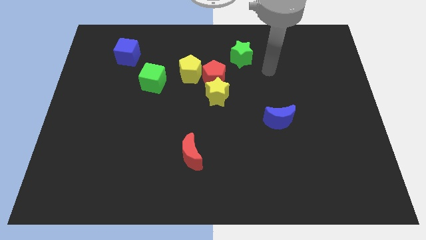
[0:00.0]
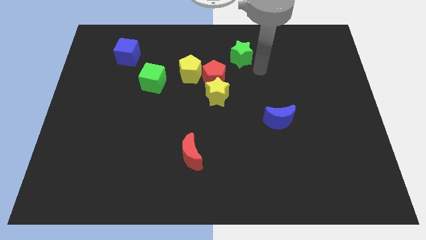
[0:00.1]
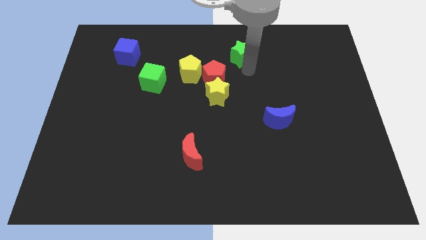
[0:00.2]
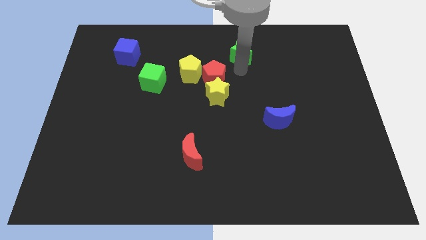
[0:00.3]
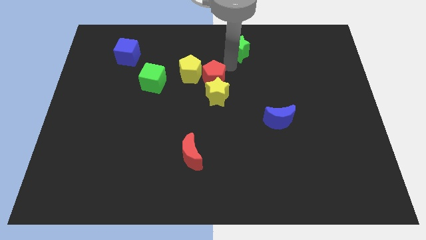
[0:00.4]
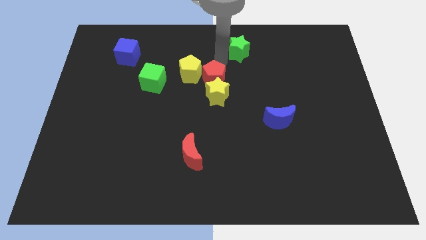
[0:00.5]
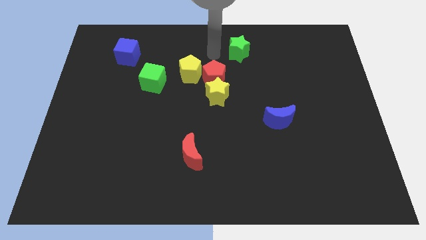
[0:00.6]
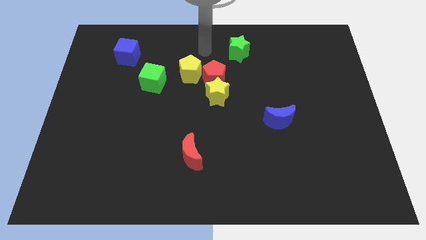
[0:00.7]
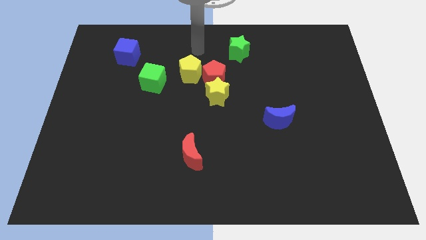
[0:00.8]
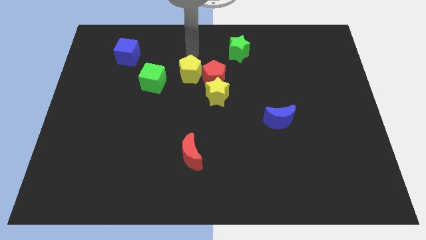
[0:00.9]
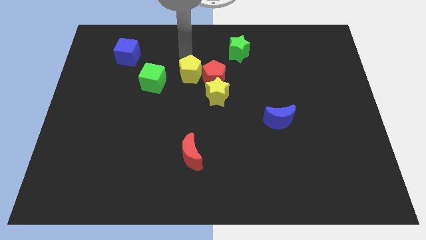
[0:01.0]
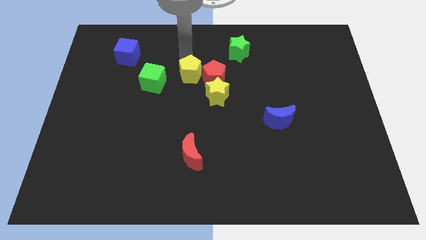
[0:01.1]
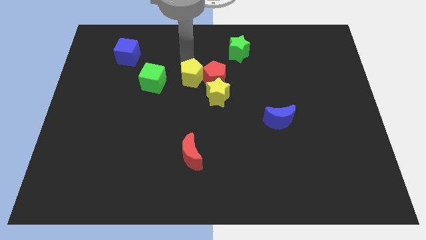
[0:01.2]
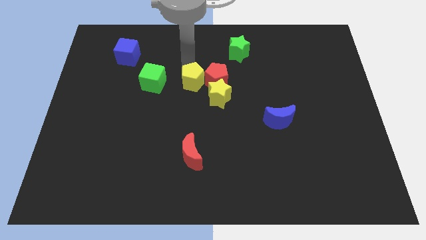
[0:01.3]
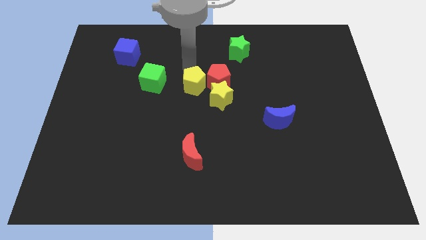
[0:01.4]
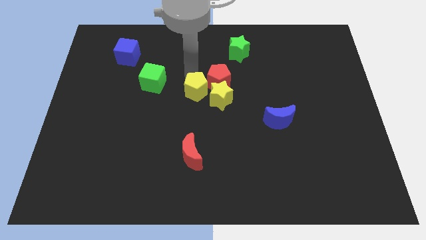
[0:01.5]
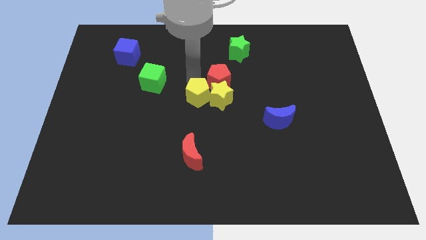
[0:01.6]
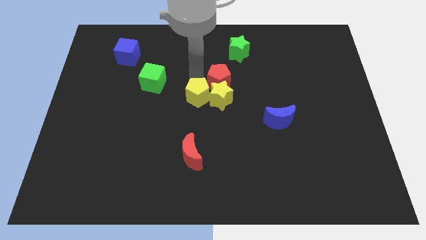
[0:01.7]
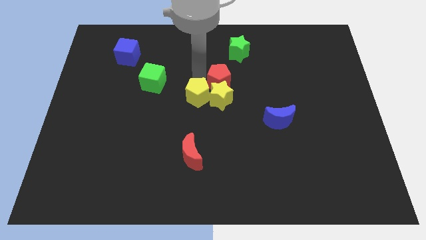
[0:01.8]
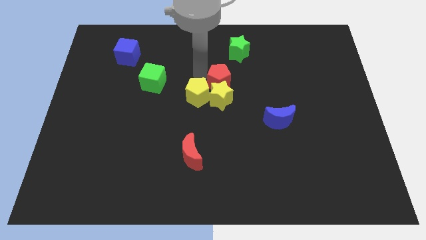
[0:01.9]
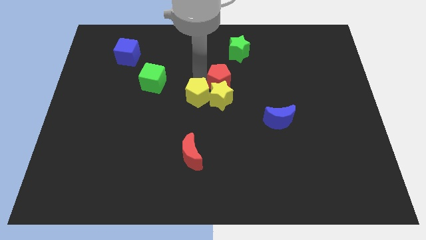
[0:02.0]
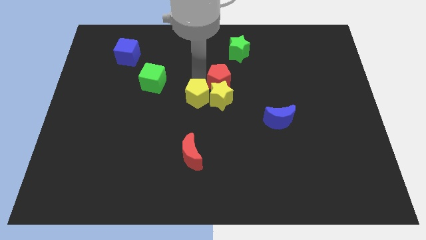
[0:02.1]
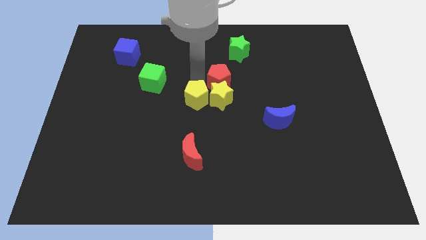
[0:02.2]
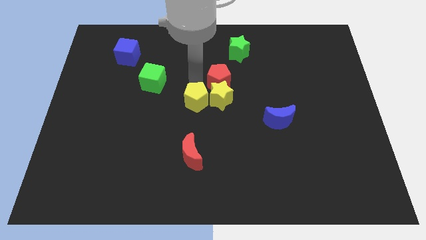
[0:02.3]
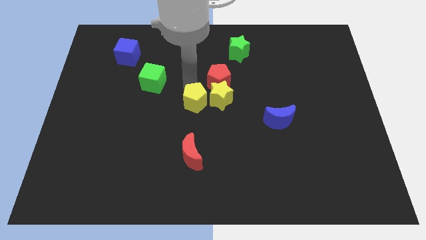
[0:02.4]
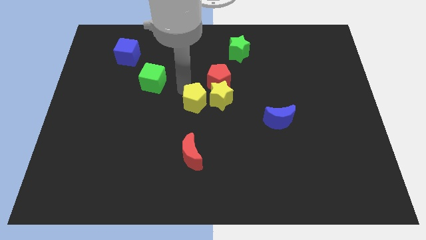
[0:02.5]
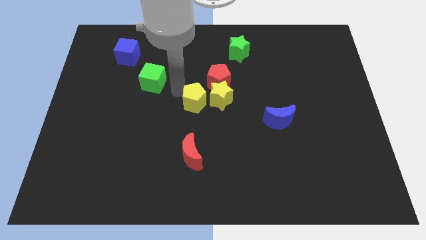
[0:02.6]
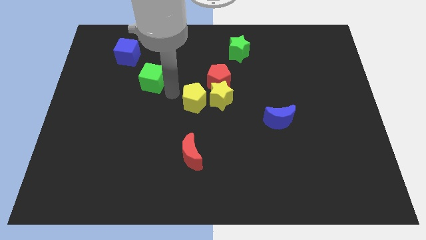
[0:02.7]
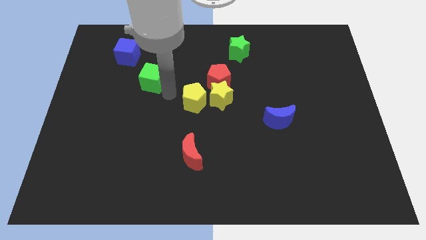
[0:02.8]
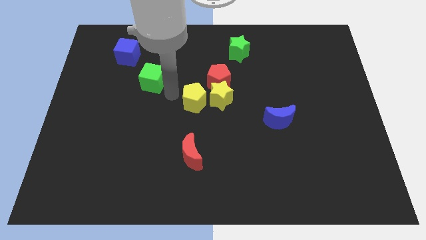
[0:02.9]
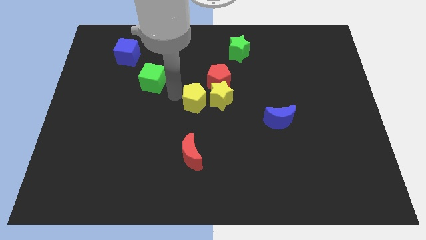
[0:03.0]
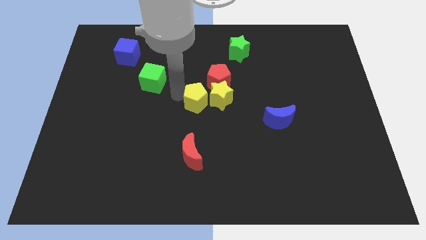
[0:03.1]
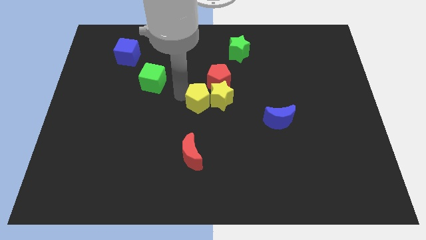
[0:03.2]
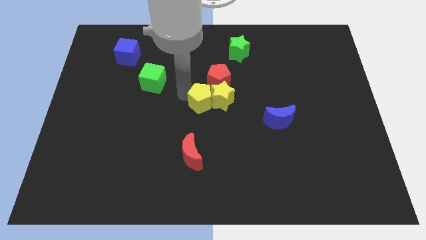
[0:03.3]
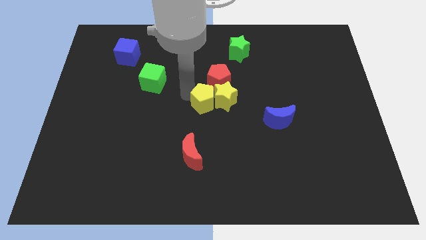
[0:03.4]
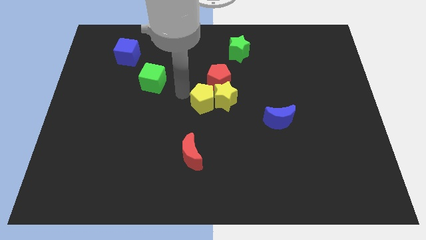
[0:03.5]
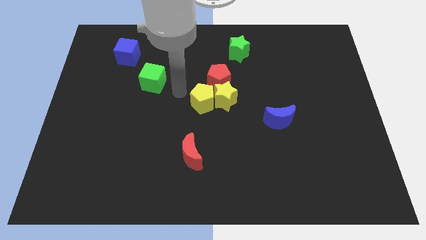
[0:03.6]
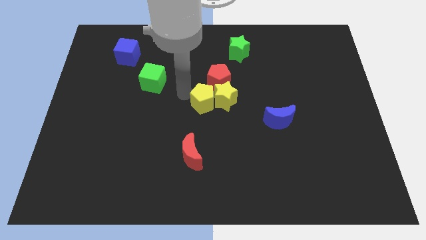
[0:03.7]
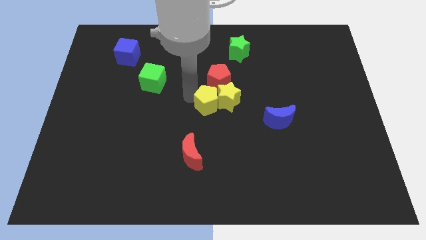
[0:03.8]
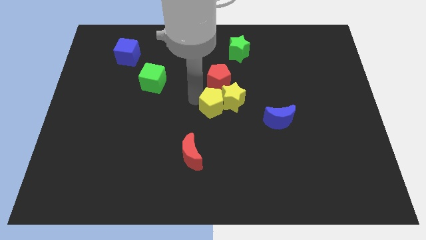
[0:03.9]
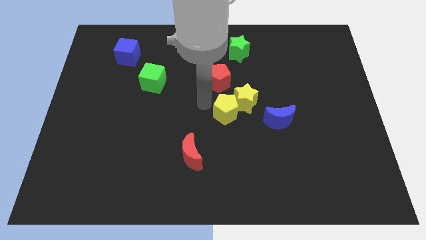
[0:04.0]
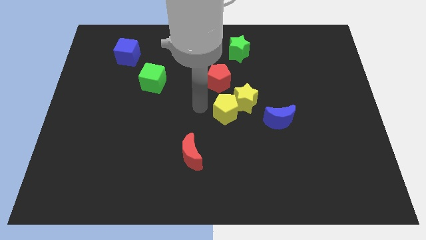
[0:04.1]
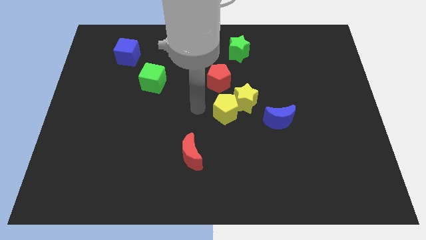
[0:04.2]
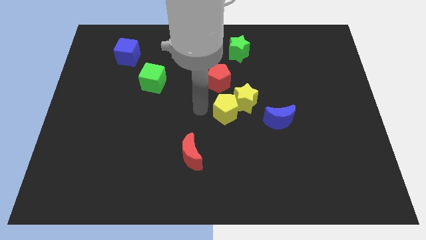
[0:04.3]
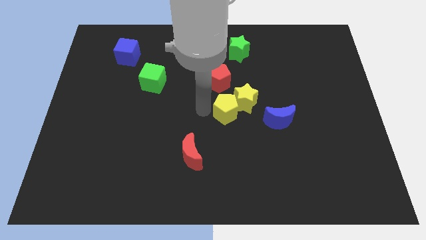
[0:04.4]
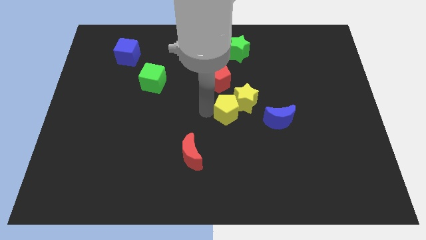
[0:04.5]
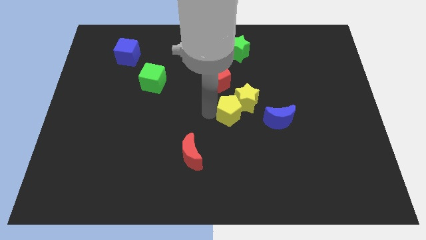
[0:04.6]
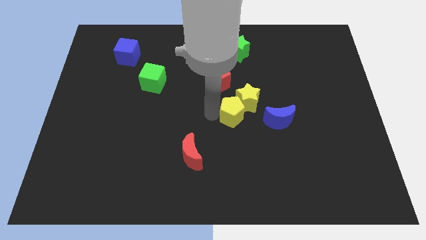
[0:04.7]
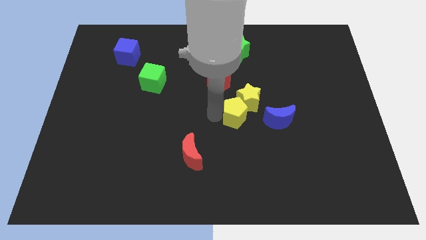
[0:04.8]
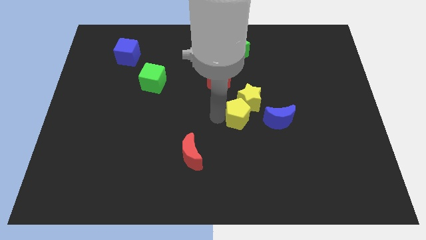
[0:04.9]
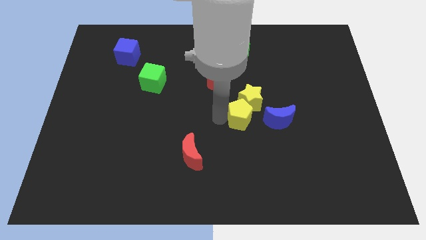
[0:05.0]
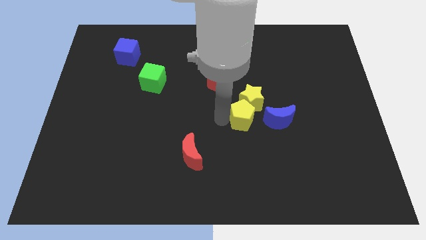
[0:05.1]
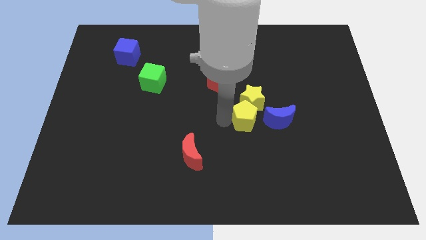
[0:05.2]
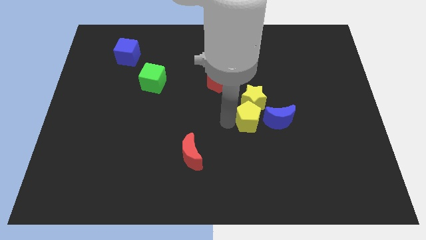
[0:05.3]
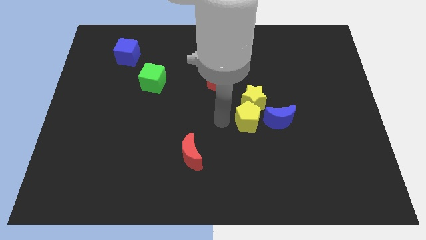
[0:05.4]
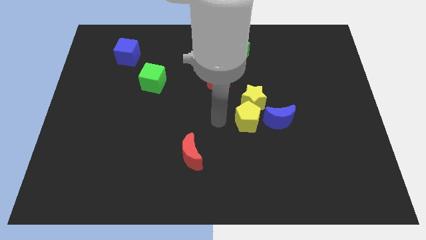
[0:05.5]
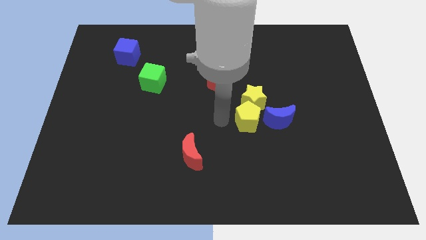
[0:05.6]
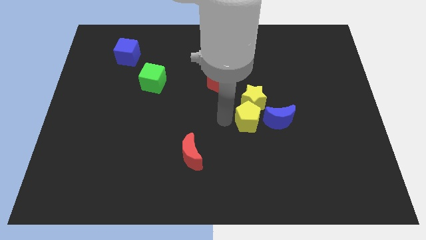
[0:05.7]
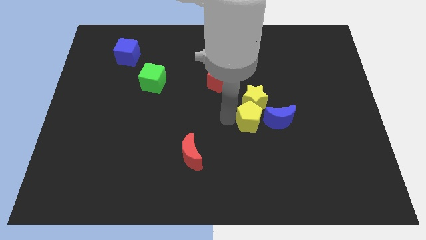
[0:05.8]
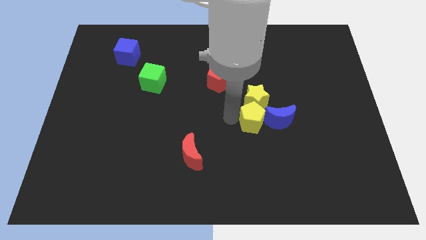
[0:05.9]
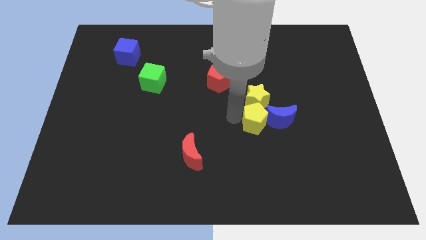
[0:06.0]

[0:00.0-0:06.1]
move the yellow pentagon close to the blue moon

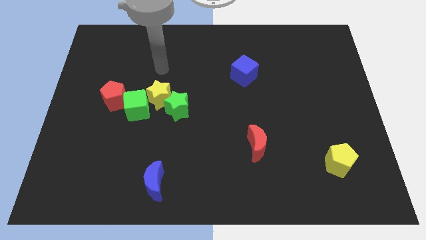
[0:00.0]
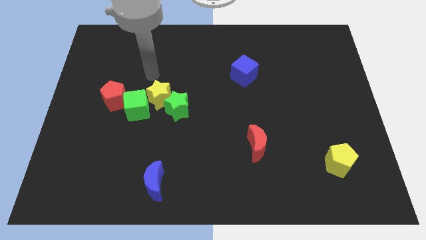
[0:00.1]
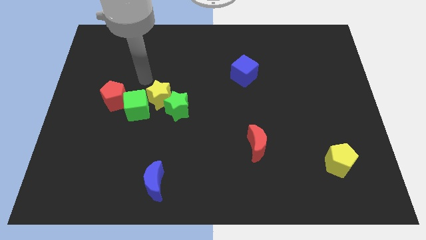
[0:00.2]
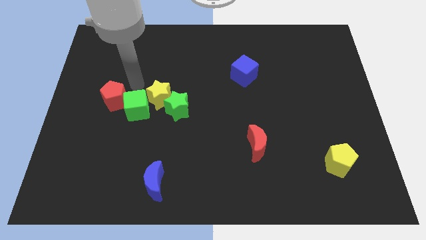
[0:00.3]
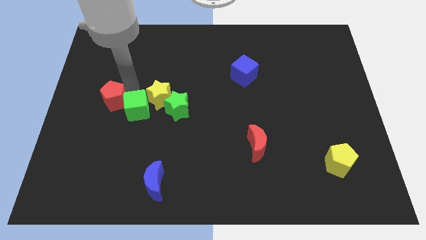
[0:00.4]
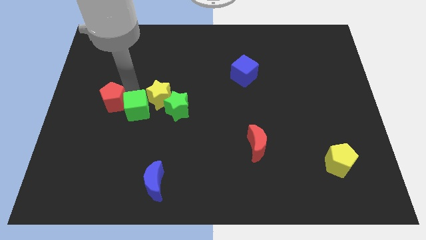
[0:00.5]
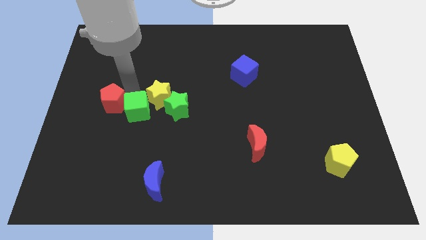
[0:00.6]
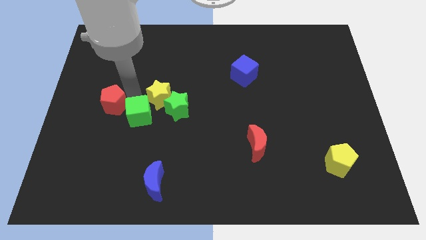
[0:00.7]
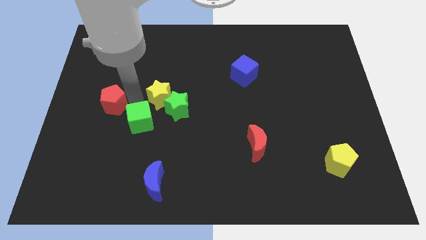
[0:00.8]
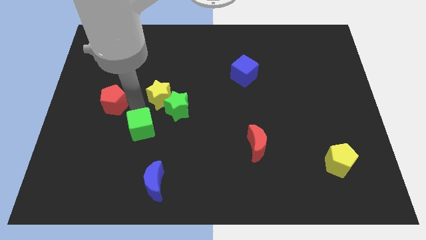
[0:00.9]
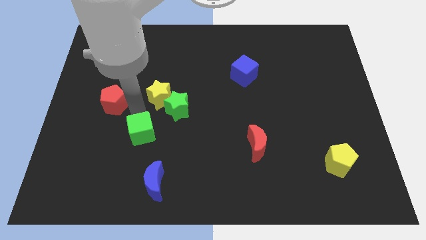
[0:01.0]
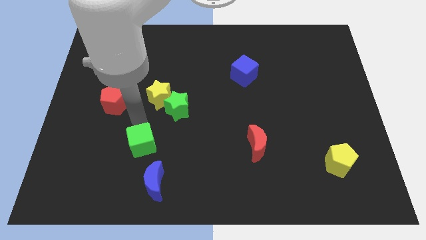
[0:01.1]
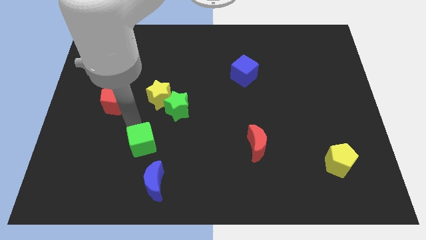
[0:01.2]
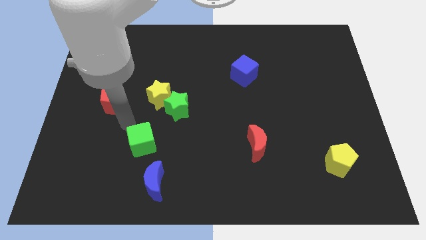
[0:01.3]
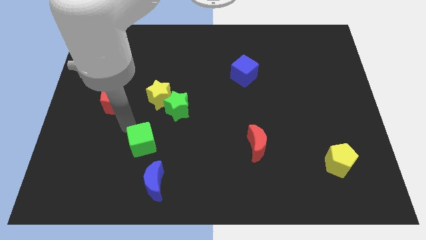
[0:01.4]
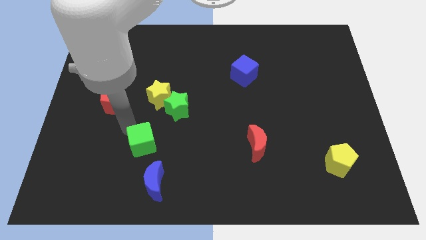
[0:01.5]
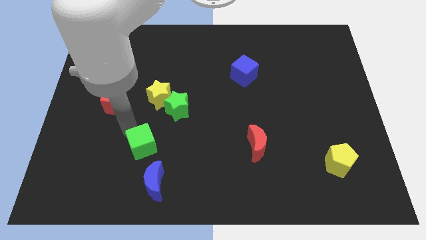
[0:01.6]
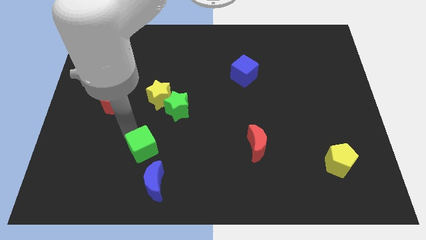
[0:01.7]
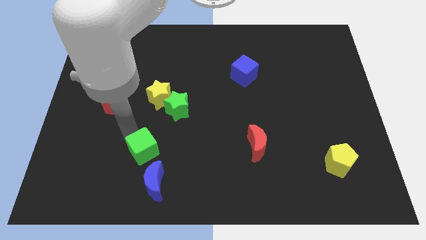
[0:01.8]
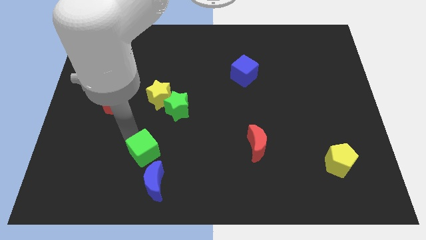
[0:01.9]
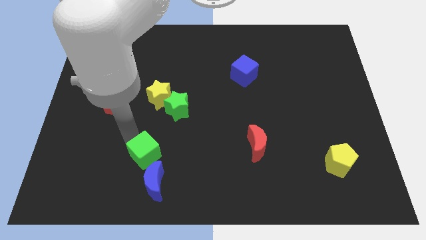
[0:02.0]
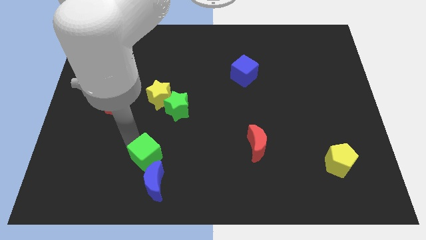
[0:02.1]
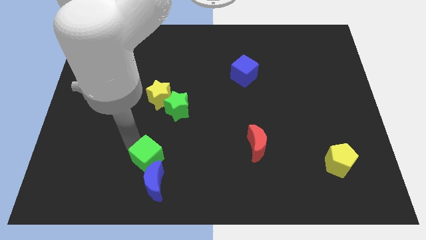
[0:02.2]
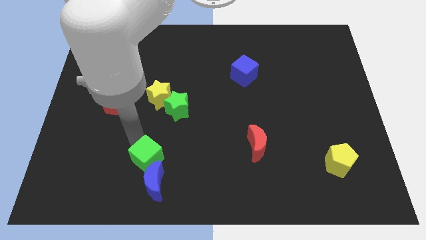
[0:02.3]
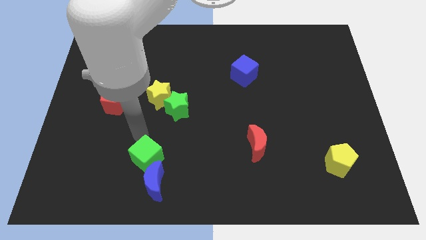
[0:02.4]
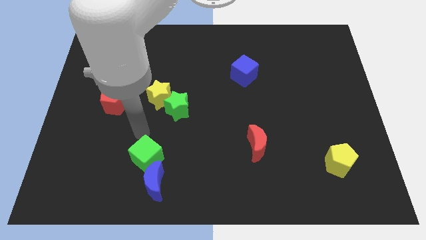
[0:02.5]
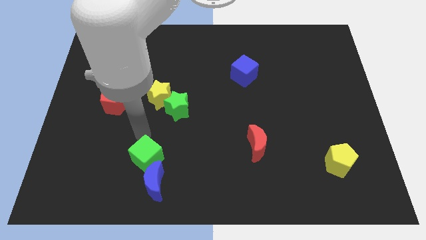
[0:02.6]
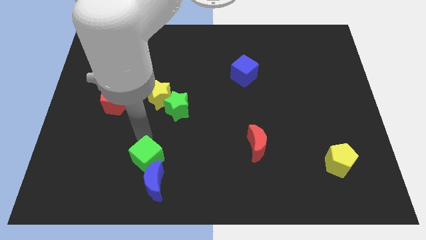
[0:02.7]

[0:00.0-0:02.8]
push the green cube to the blue moon
